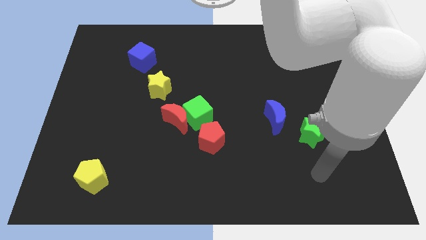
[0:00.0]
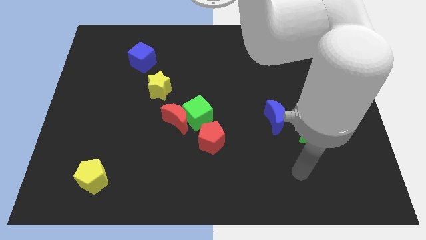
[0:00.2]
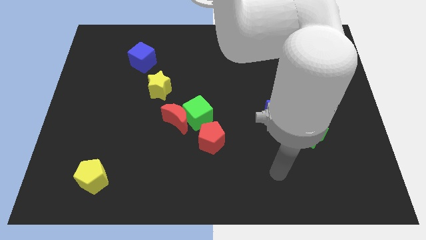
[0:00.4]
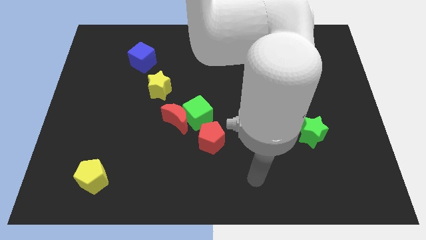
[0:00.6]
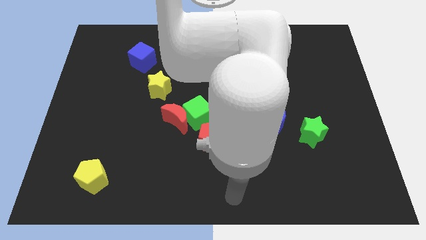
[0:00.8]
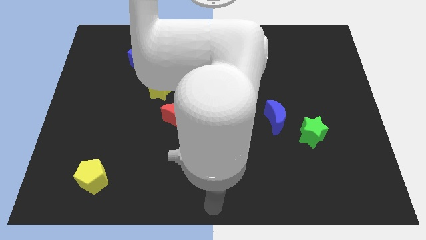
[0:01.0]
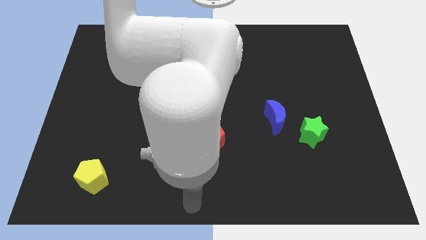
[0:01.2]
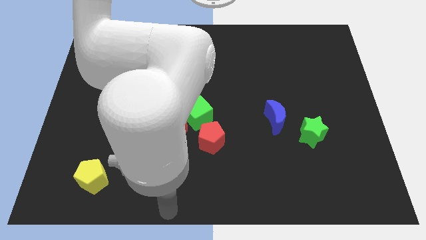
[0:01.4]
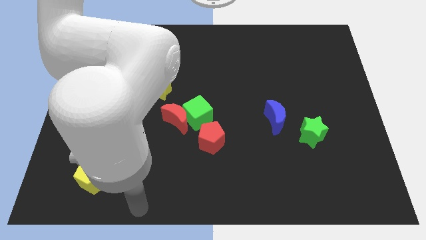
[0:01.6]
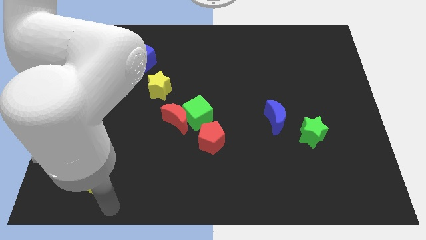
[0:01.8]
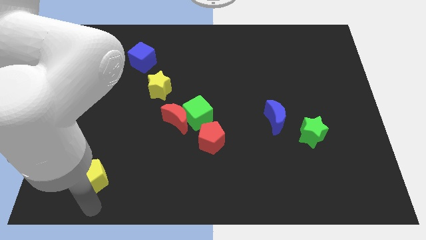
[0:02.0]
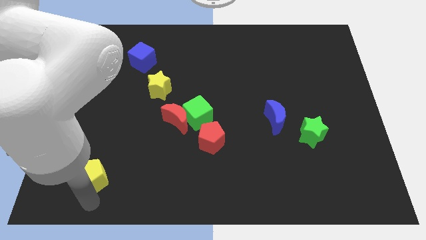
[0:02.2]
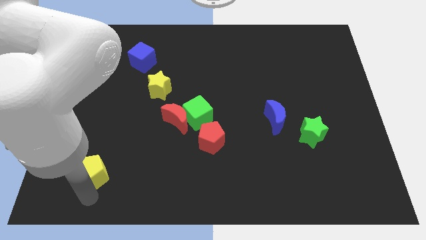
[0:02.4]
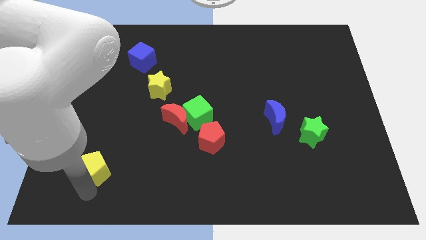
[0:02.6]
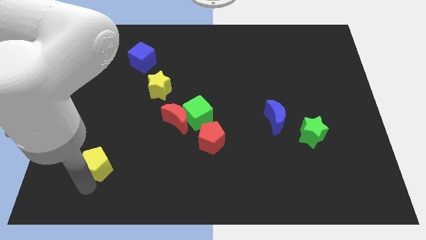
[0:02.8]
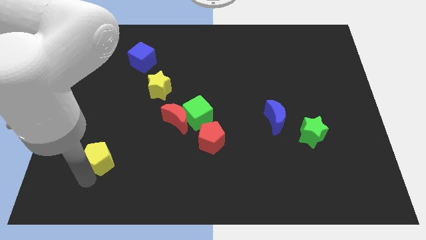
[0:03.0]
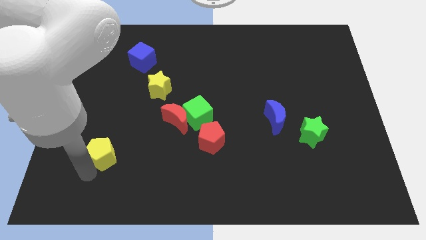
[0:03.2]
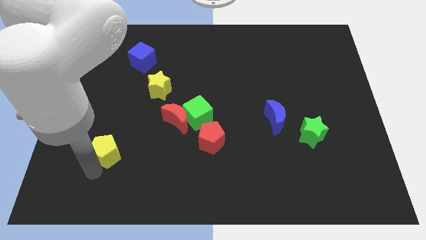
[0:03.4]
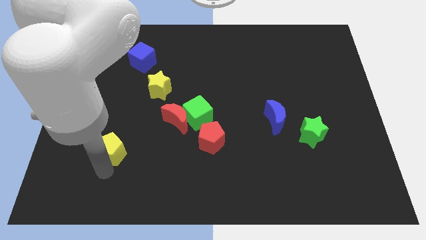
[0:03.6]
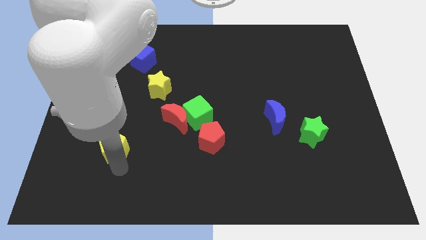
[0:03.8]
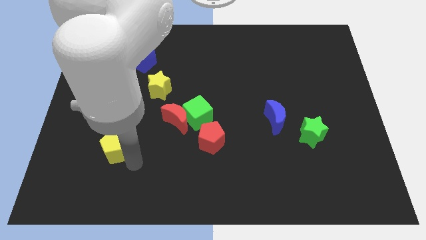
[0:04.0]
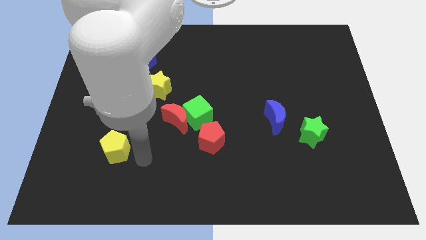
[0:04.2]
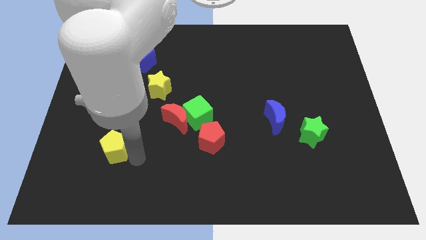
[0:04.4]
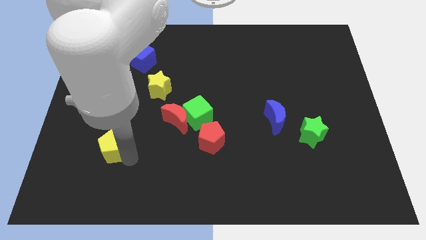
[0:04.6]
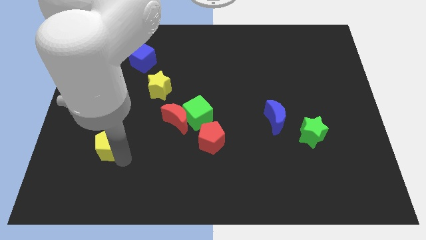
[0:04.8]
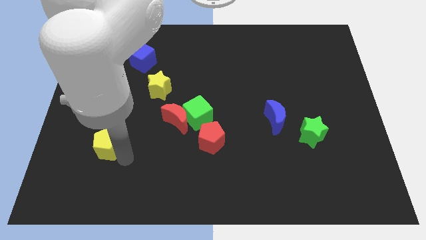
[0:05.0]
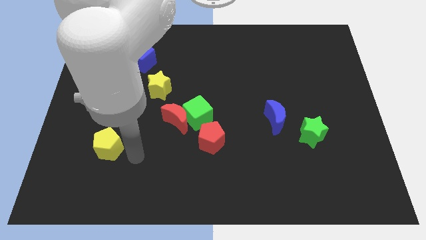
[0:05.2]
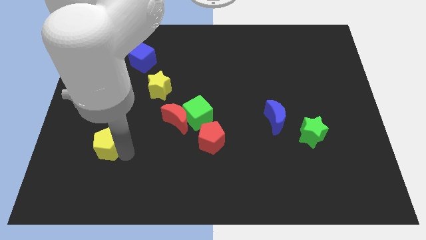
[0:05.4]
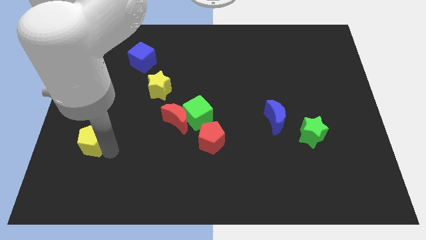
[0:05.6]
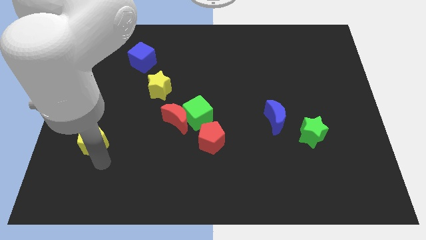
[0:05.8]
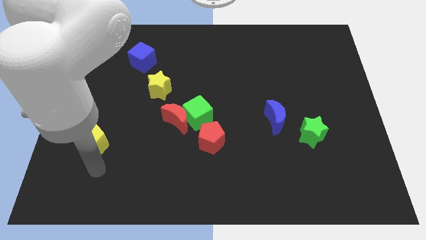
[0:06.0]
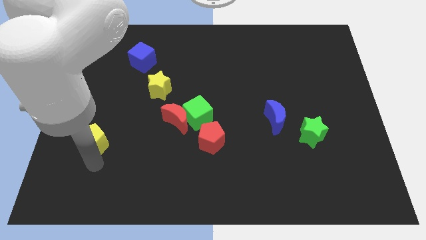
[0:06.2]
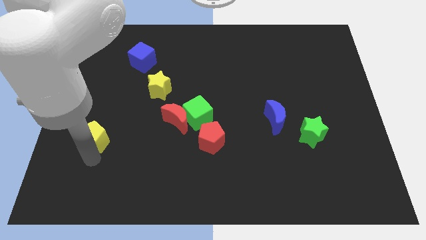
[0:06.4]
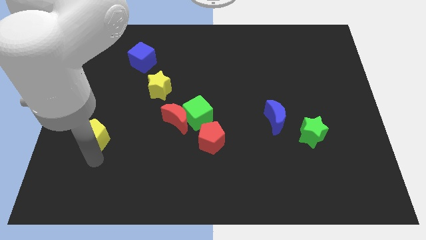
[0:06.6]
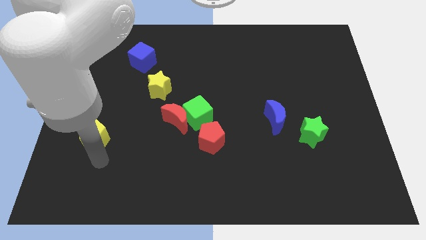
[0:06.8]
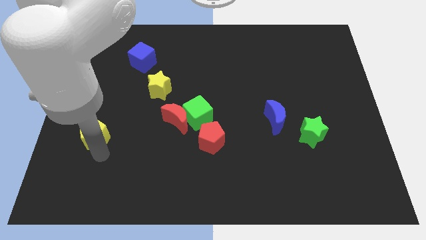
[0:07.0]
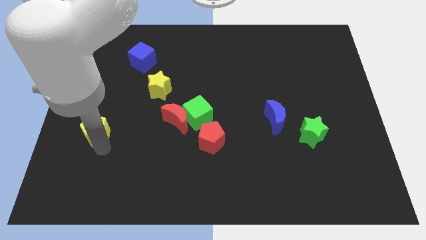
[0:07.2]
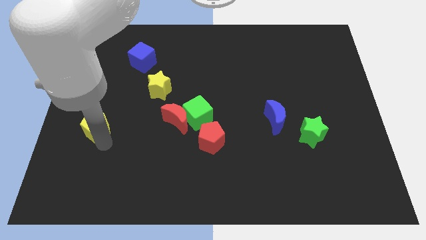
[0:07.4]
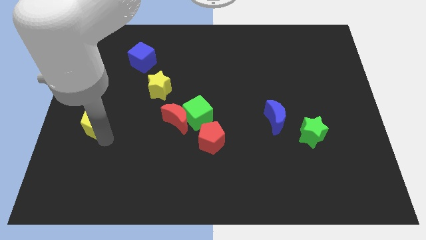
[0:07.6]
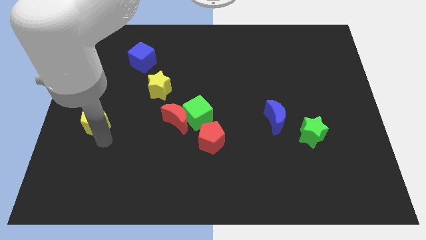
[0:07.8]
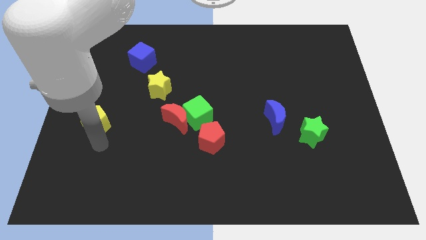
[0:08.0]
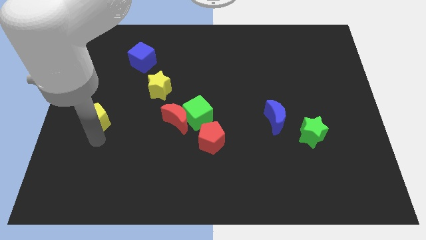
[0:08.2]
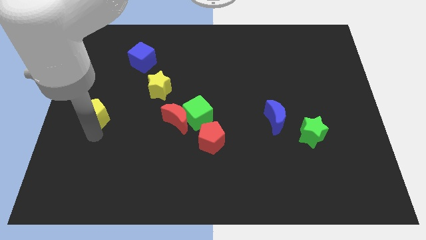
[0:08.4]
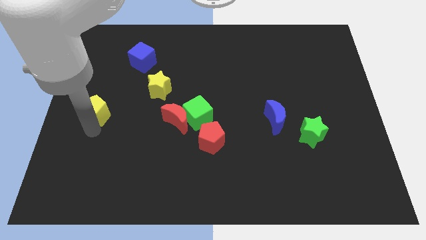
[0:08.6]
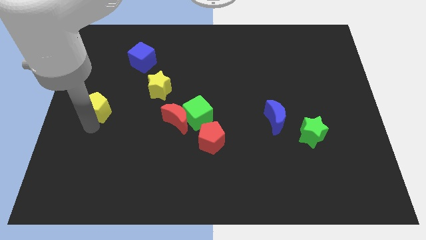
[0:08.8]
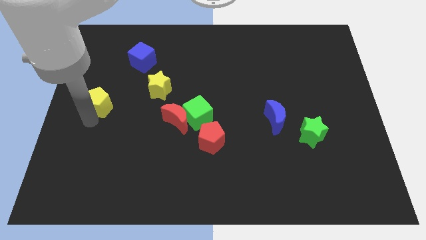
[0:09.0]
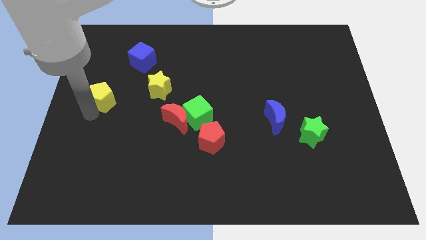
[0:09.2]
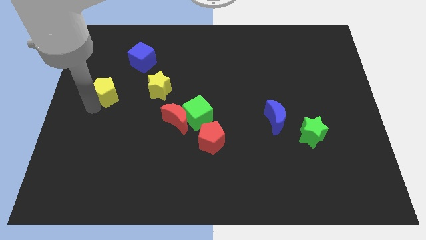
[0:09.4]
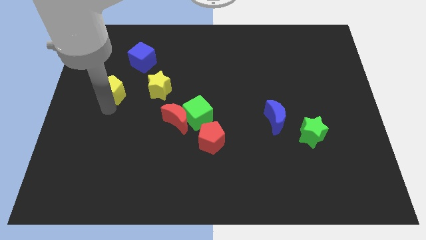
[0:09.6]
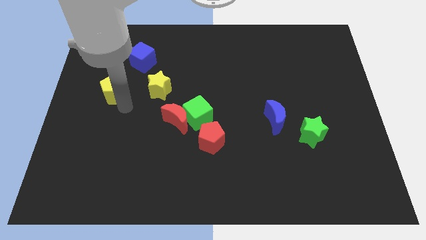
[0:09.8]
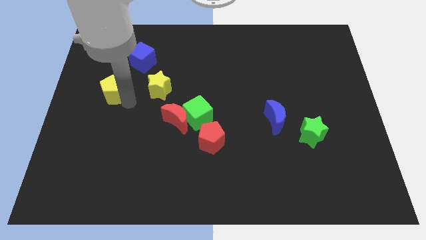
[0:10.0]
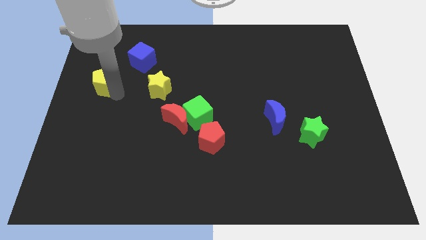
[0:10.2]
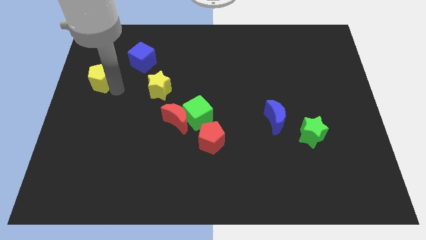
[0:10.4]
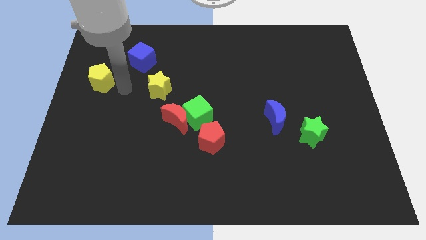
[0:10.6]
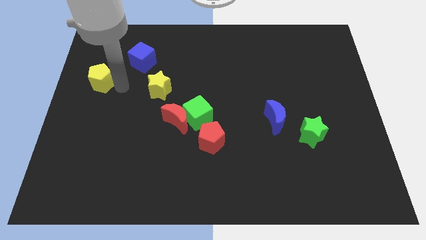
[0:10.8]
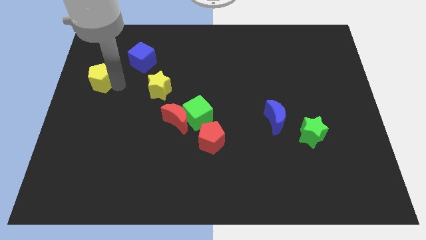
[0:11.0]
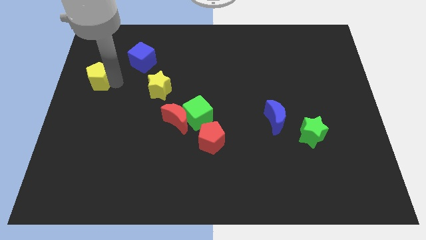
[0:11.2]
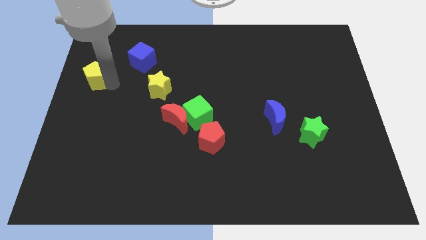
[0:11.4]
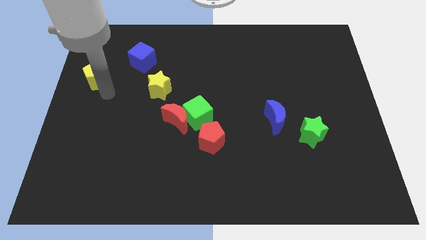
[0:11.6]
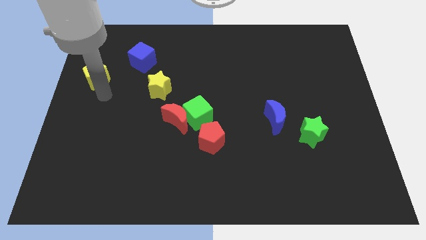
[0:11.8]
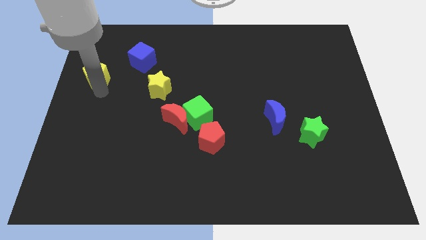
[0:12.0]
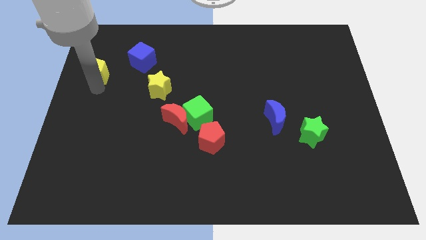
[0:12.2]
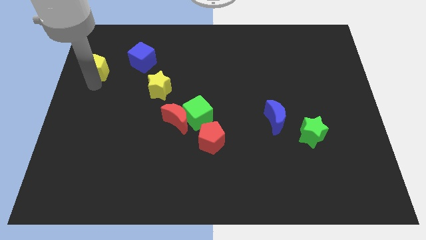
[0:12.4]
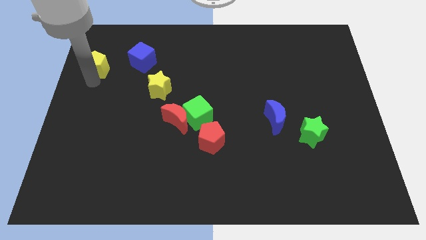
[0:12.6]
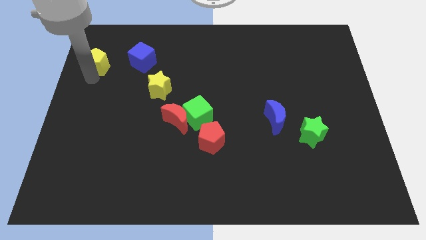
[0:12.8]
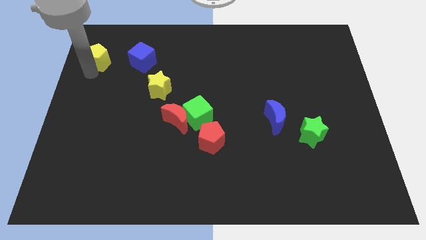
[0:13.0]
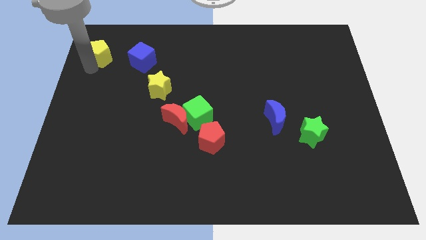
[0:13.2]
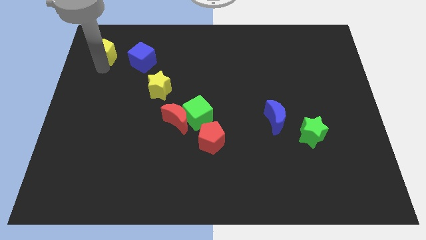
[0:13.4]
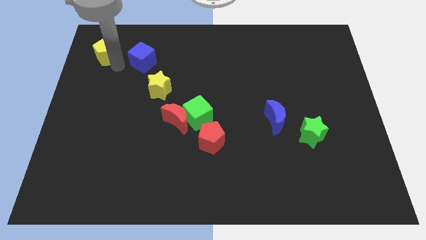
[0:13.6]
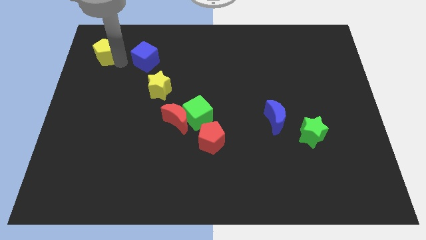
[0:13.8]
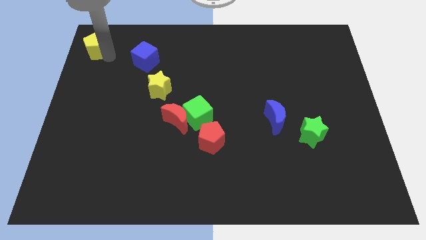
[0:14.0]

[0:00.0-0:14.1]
put the yellow pentagon to the top left corner
